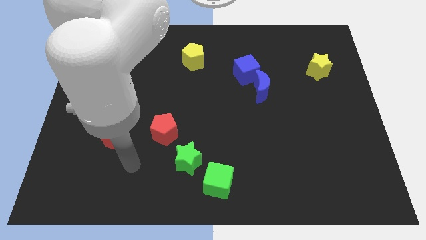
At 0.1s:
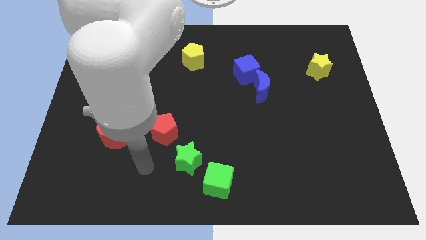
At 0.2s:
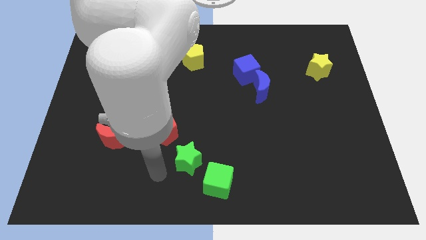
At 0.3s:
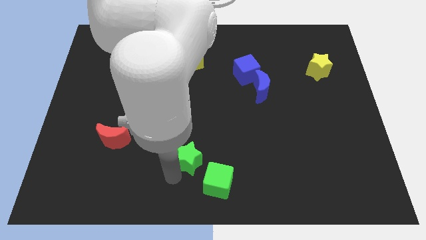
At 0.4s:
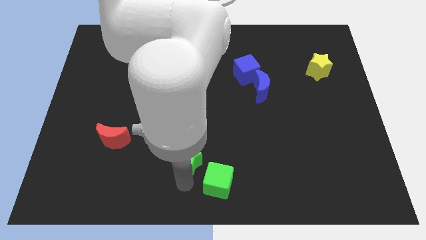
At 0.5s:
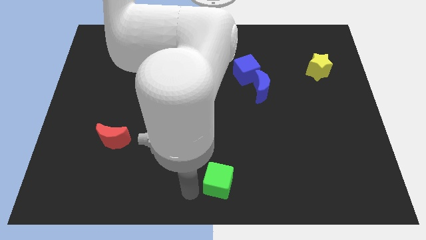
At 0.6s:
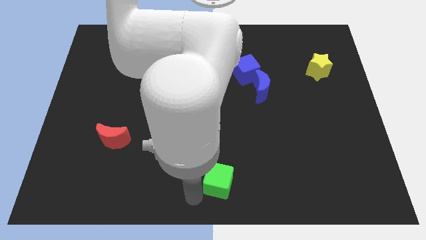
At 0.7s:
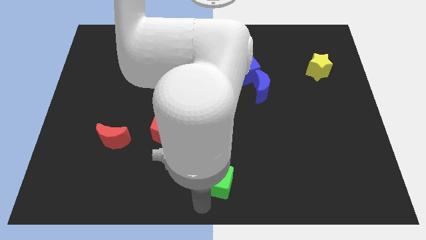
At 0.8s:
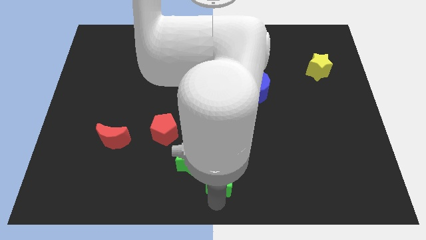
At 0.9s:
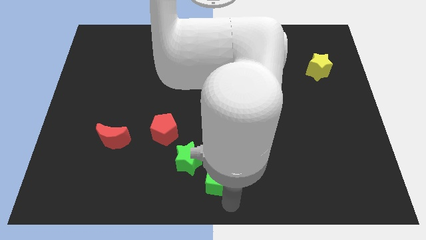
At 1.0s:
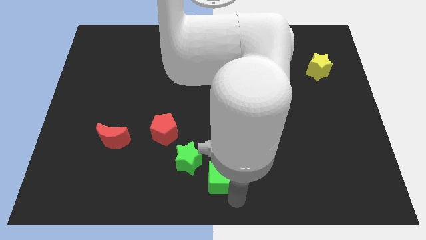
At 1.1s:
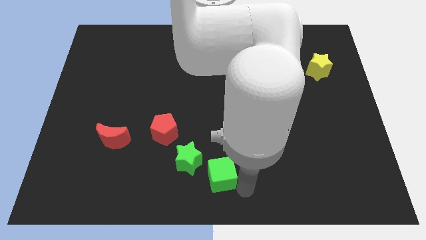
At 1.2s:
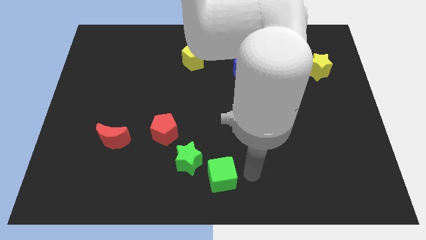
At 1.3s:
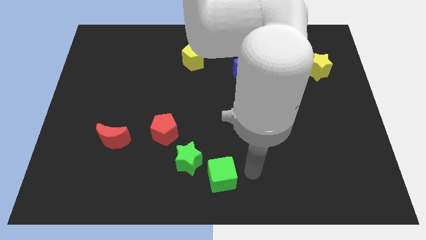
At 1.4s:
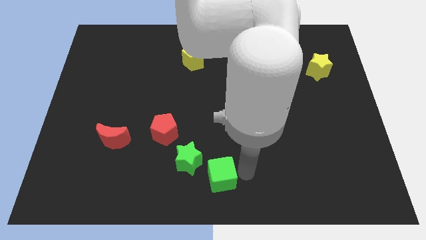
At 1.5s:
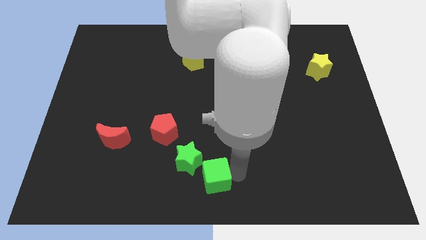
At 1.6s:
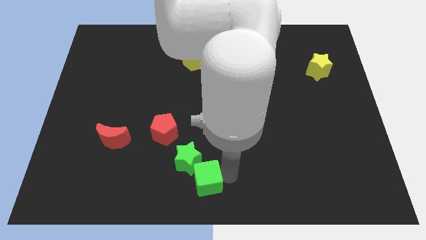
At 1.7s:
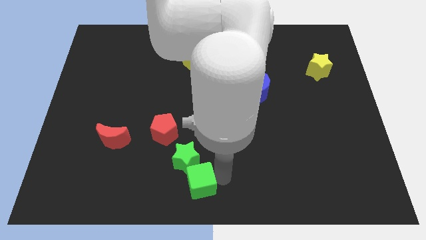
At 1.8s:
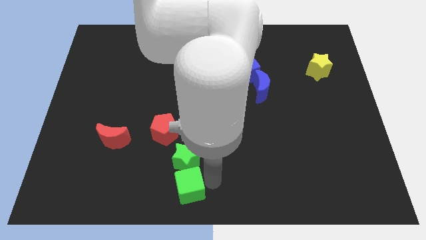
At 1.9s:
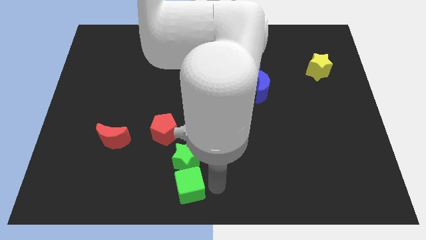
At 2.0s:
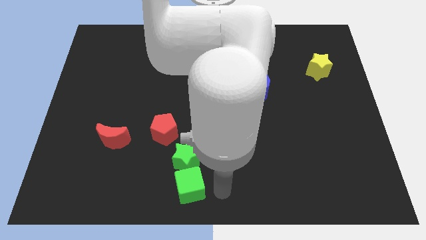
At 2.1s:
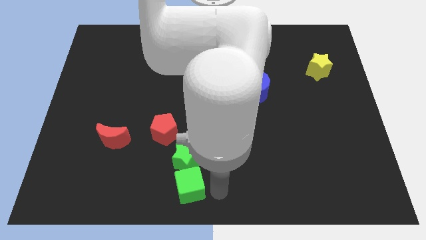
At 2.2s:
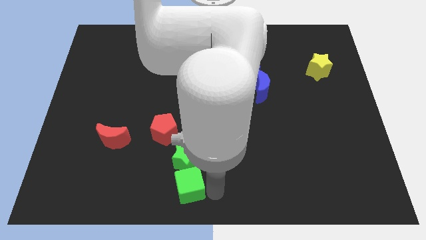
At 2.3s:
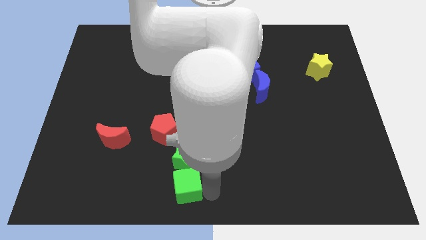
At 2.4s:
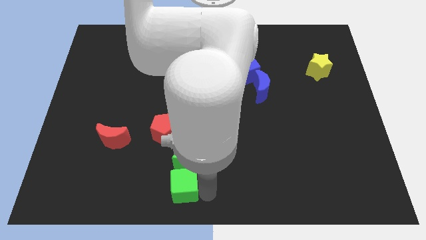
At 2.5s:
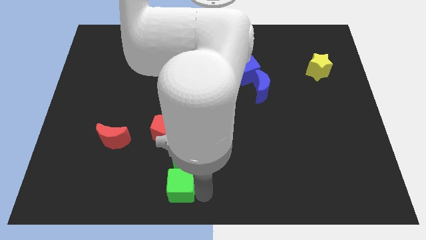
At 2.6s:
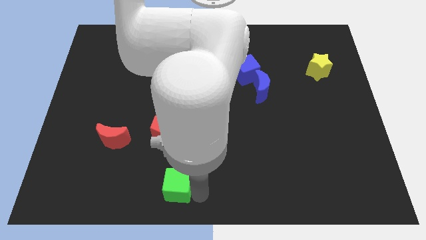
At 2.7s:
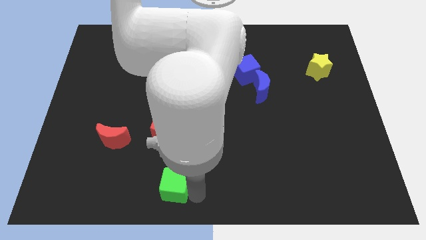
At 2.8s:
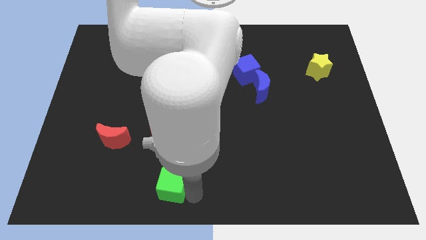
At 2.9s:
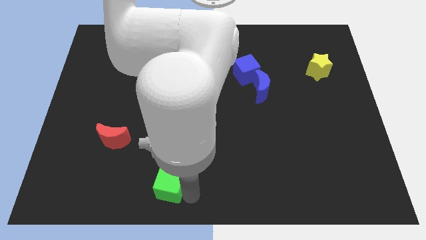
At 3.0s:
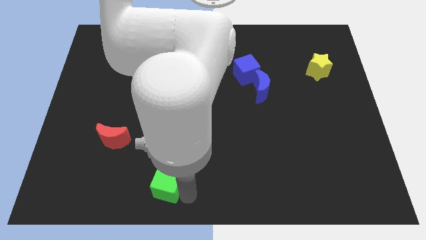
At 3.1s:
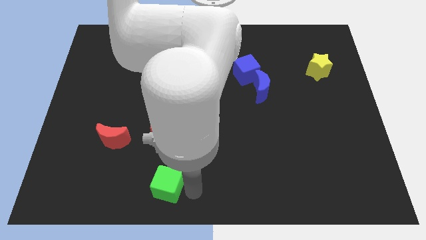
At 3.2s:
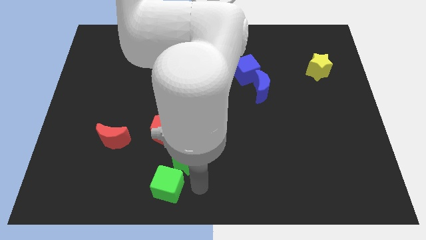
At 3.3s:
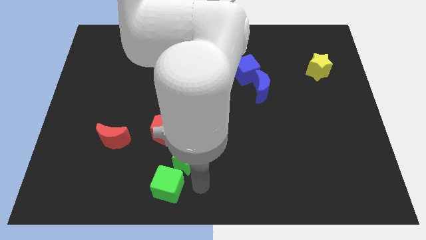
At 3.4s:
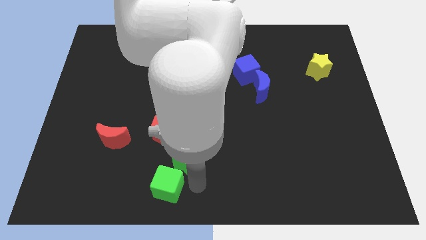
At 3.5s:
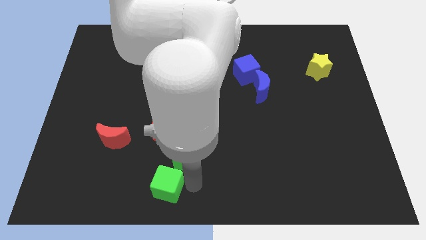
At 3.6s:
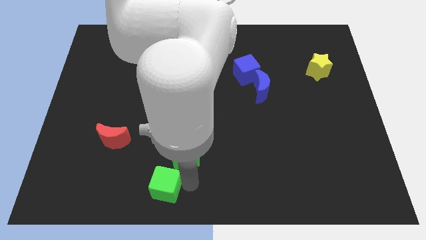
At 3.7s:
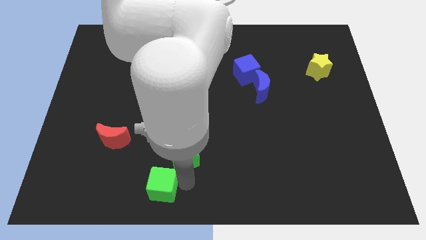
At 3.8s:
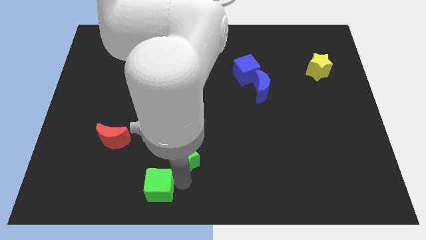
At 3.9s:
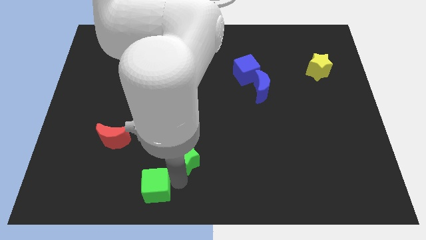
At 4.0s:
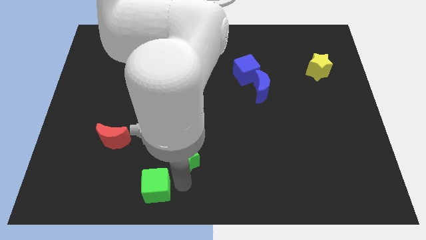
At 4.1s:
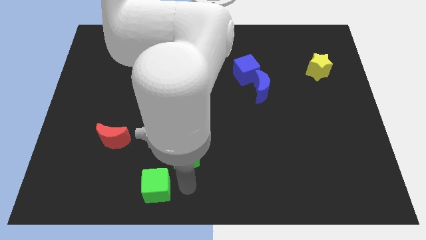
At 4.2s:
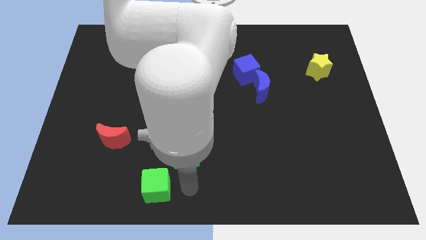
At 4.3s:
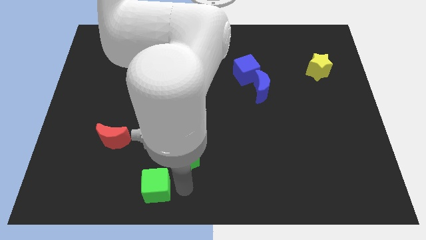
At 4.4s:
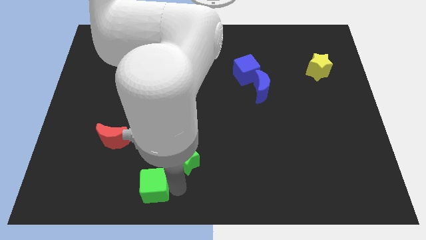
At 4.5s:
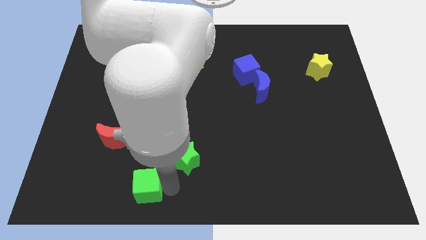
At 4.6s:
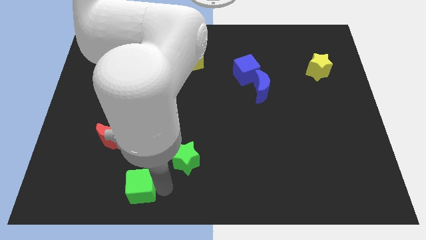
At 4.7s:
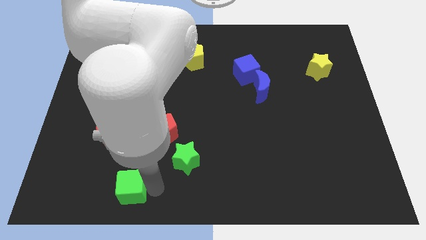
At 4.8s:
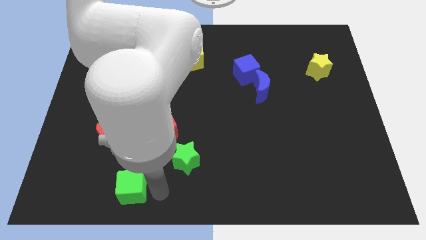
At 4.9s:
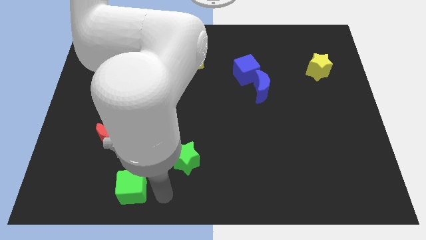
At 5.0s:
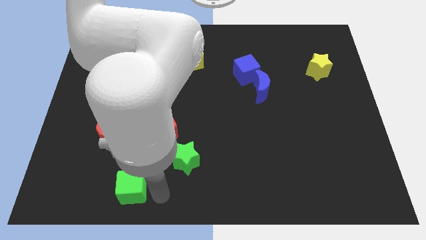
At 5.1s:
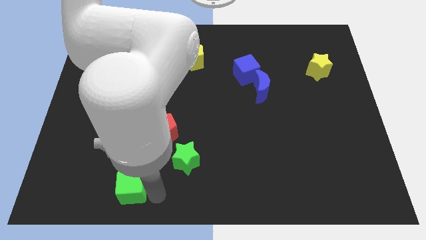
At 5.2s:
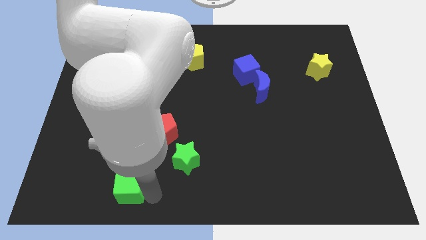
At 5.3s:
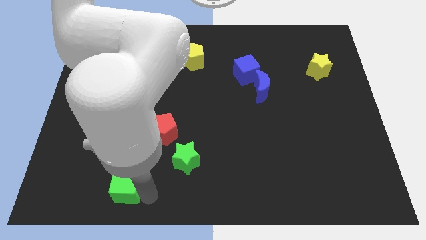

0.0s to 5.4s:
push the green cube to the bottom of the red moon

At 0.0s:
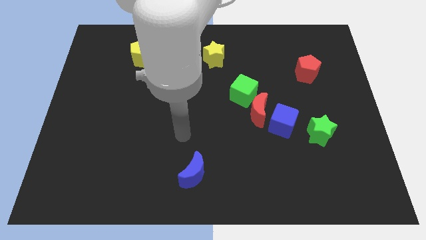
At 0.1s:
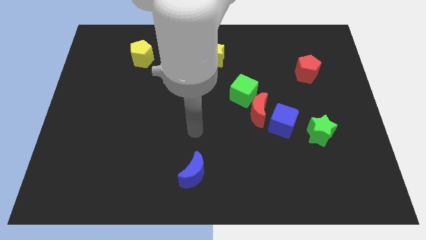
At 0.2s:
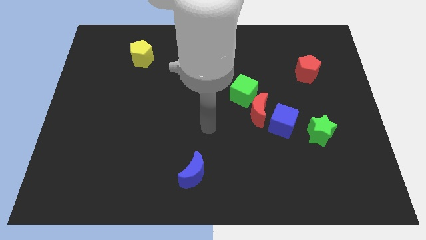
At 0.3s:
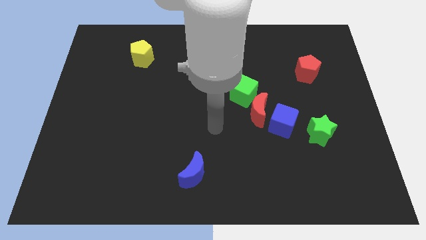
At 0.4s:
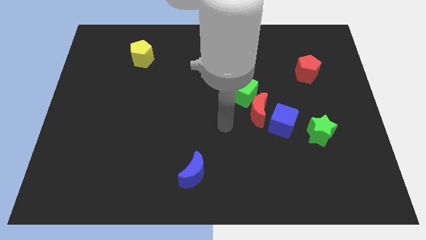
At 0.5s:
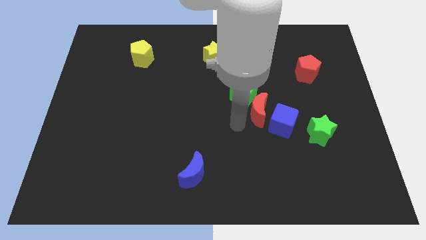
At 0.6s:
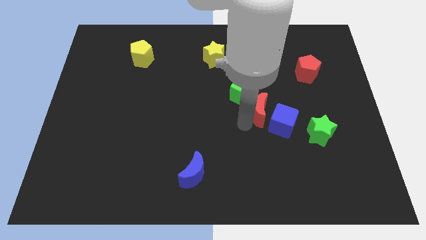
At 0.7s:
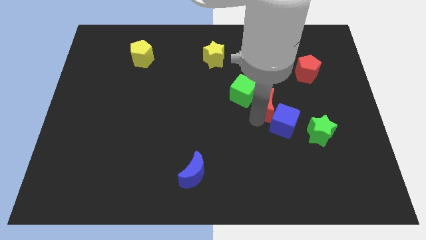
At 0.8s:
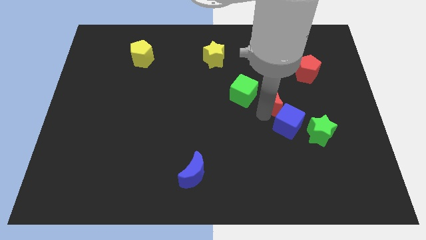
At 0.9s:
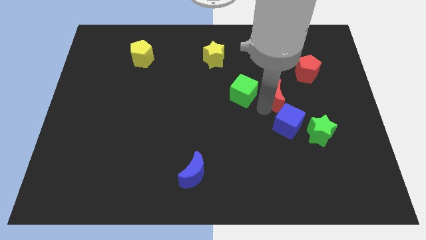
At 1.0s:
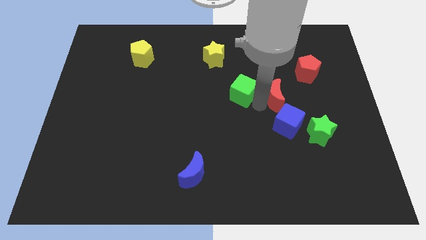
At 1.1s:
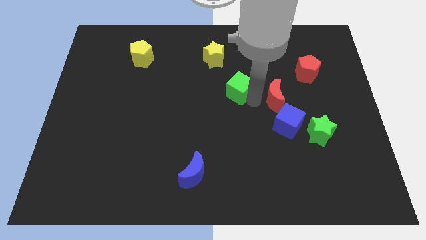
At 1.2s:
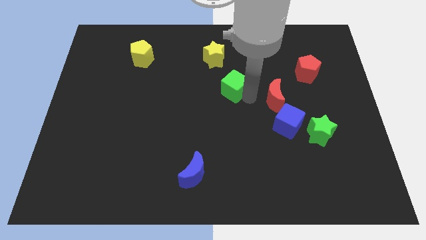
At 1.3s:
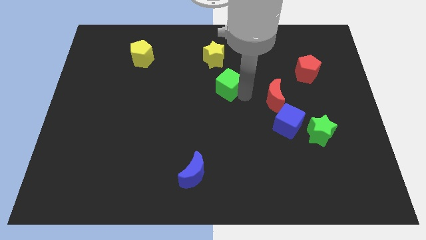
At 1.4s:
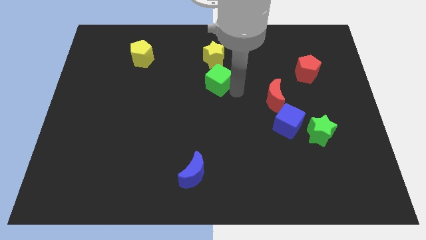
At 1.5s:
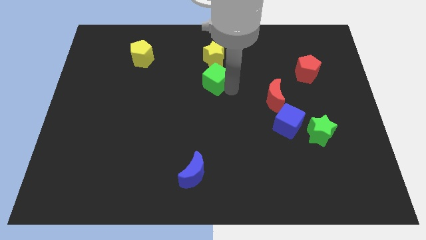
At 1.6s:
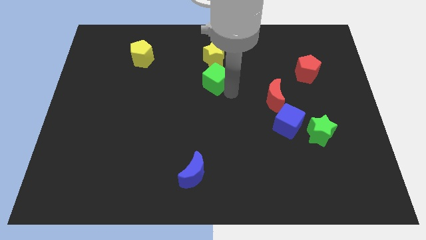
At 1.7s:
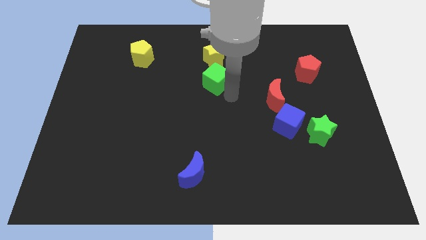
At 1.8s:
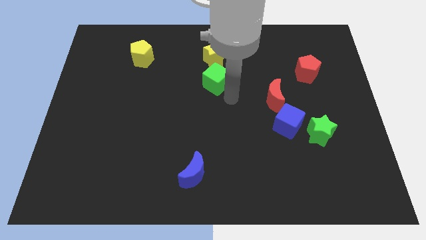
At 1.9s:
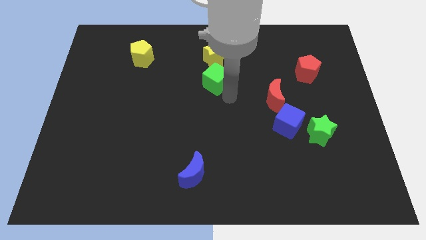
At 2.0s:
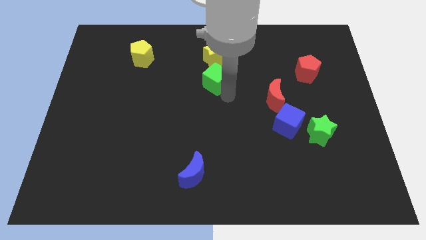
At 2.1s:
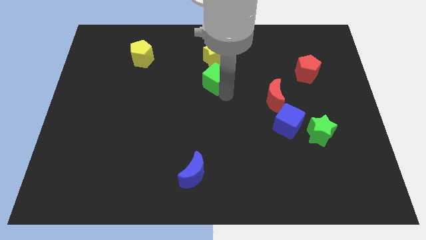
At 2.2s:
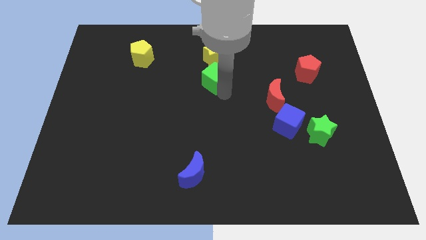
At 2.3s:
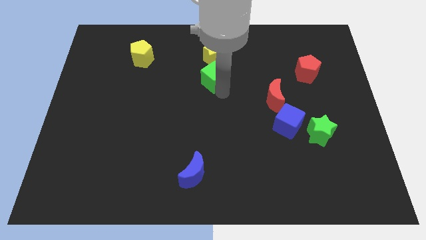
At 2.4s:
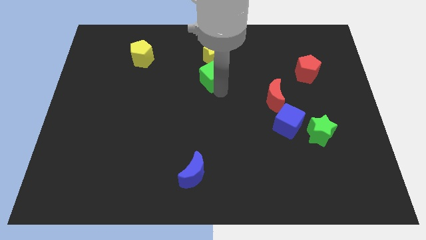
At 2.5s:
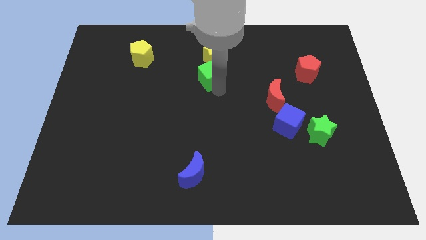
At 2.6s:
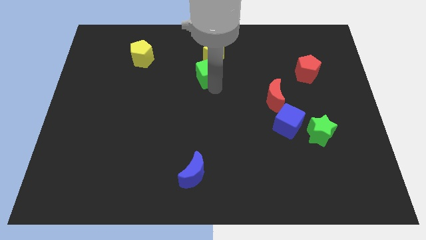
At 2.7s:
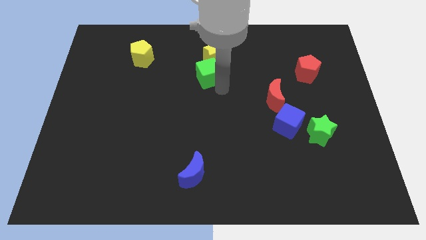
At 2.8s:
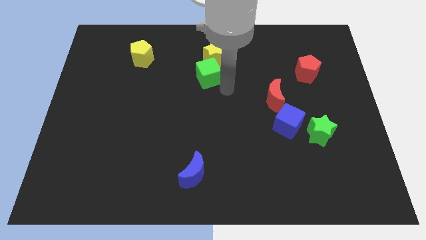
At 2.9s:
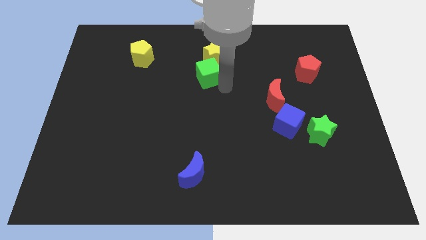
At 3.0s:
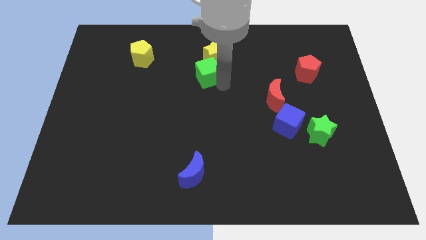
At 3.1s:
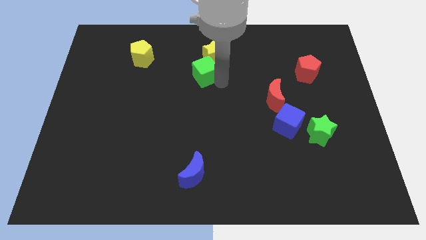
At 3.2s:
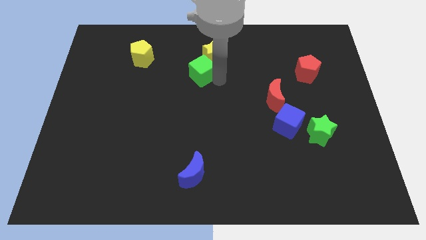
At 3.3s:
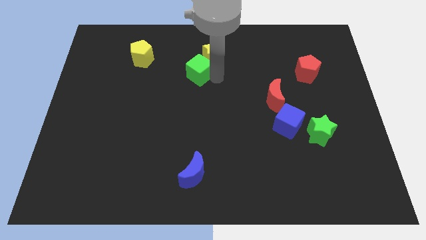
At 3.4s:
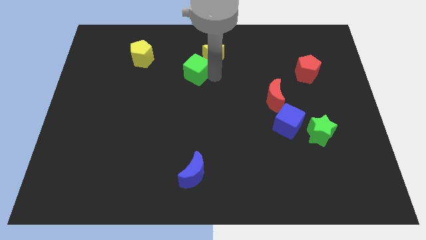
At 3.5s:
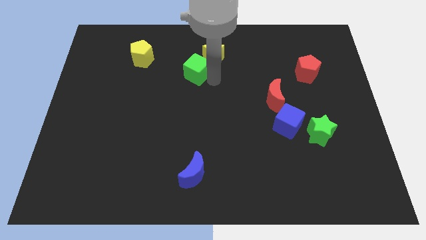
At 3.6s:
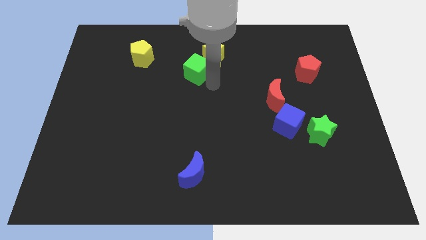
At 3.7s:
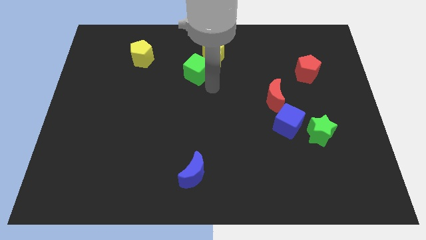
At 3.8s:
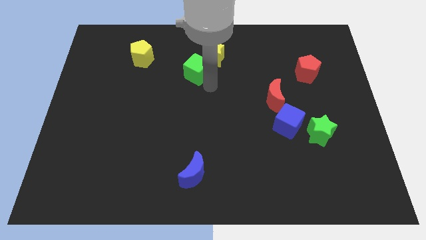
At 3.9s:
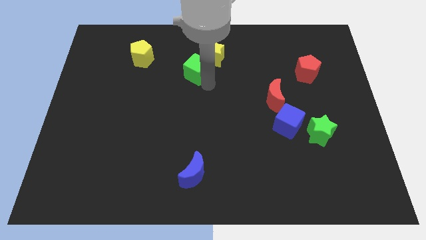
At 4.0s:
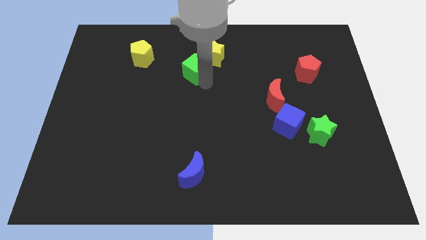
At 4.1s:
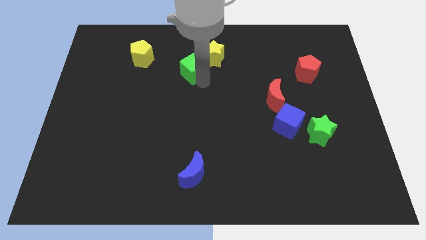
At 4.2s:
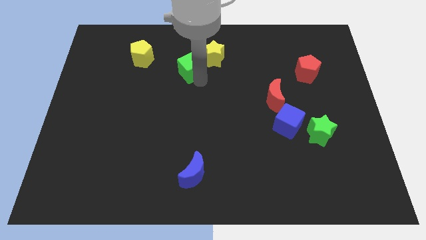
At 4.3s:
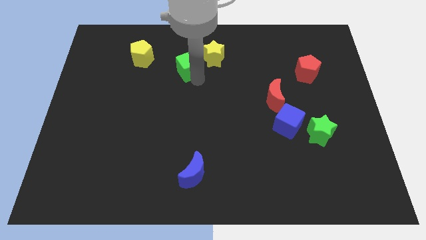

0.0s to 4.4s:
push the green cube just right of the yellow pentagon
